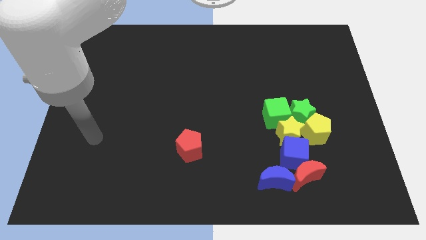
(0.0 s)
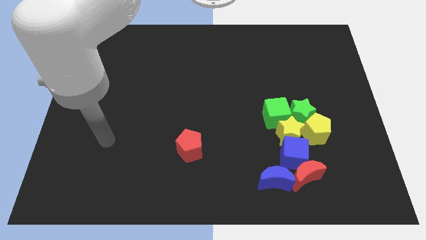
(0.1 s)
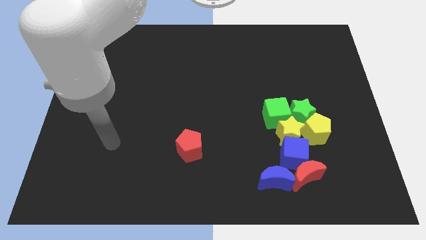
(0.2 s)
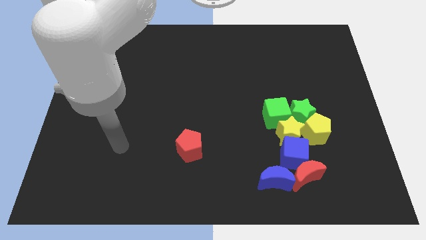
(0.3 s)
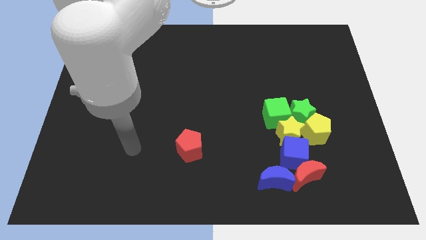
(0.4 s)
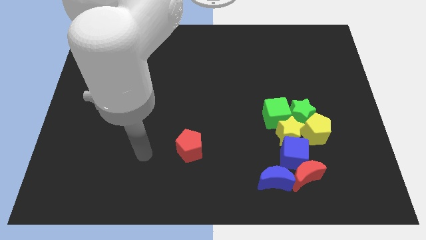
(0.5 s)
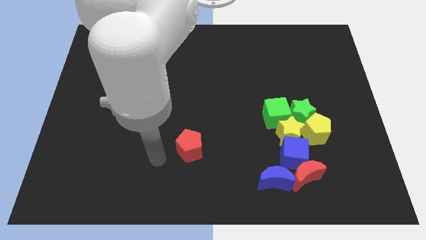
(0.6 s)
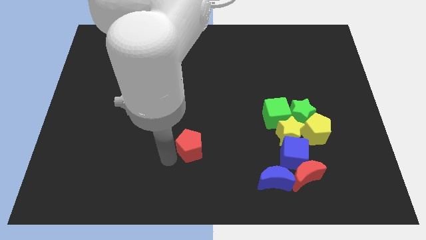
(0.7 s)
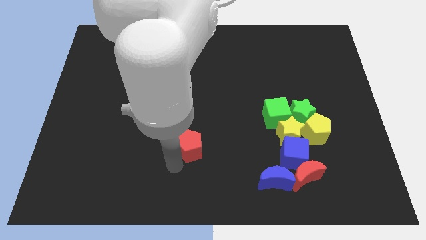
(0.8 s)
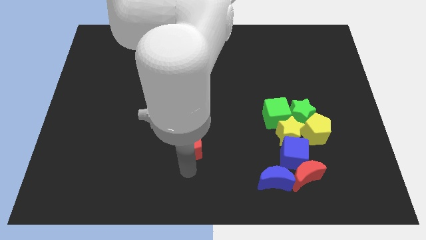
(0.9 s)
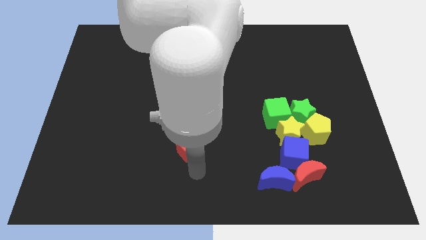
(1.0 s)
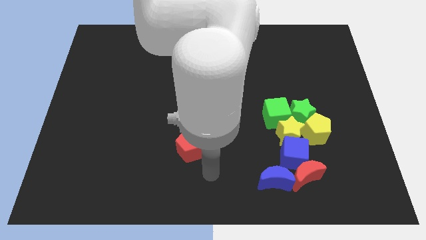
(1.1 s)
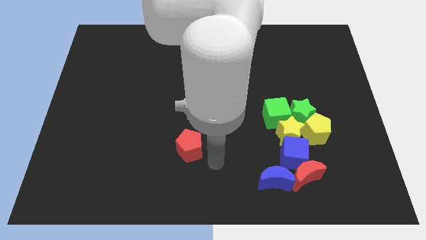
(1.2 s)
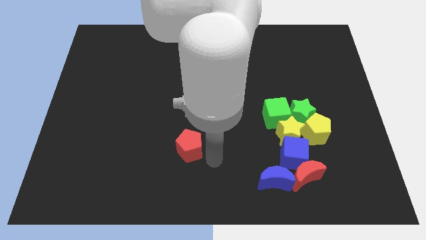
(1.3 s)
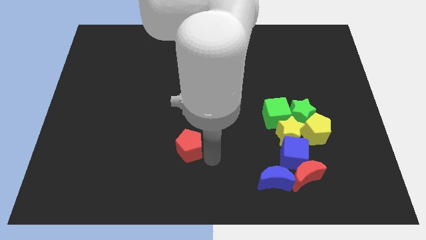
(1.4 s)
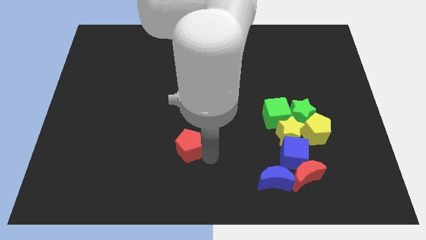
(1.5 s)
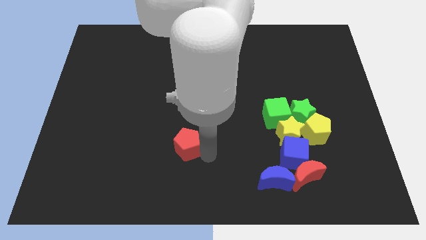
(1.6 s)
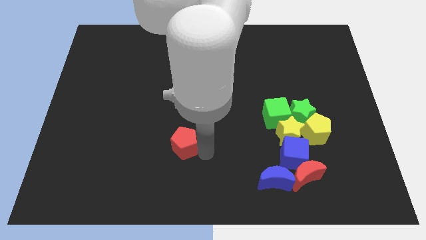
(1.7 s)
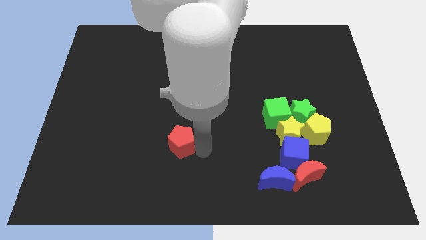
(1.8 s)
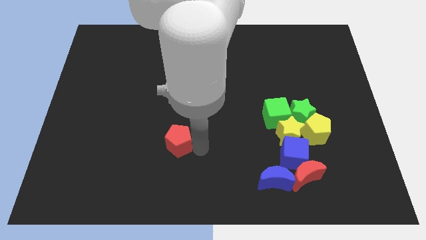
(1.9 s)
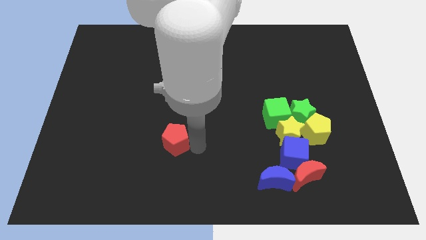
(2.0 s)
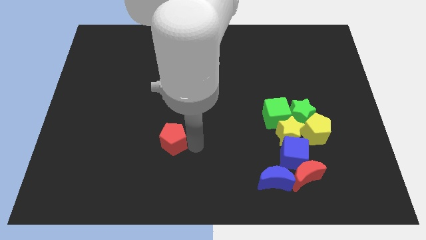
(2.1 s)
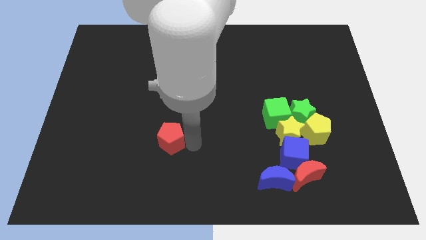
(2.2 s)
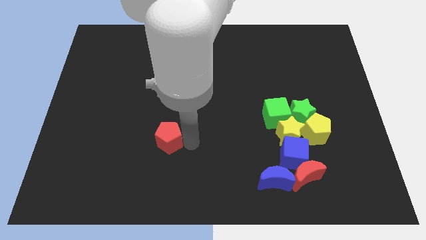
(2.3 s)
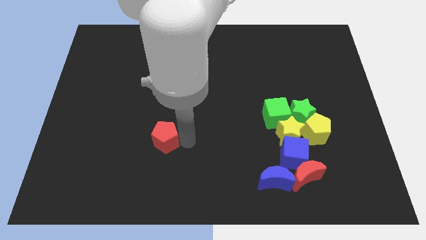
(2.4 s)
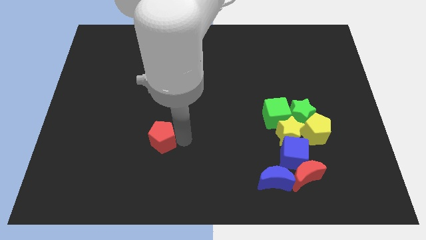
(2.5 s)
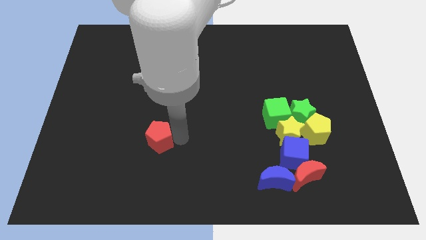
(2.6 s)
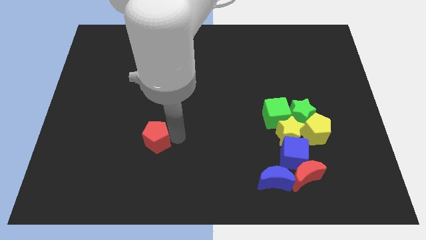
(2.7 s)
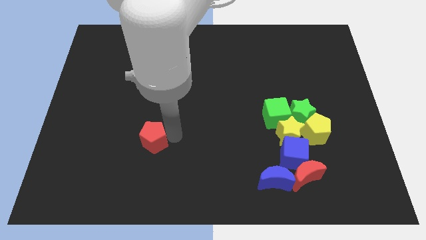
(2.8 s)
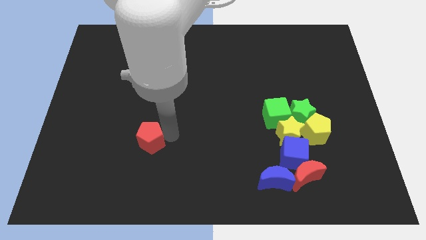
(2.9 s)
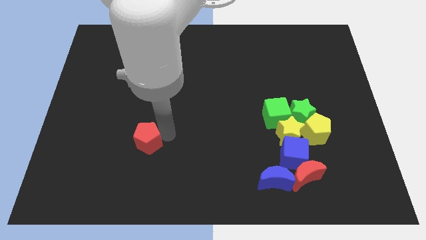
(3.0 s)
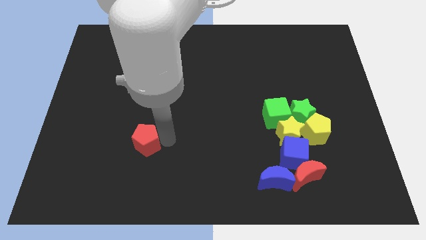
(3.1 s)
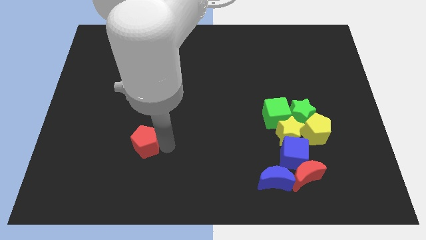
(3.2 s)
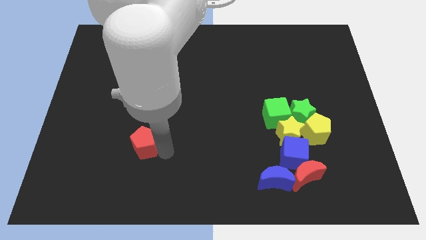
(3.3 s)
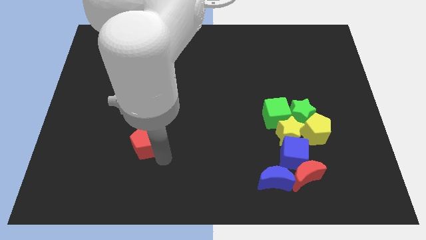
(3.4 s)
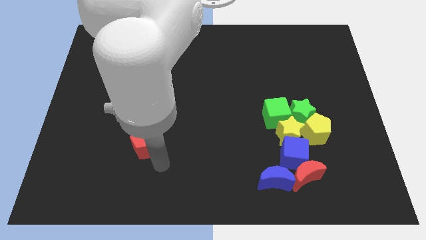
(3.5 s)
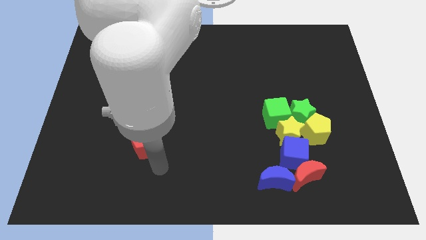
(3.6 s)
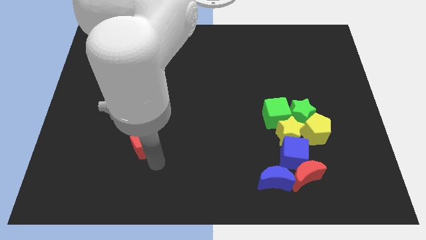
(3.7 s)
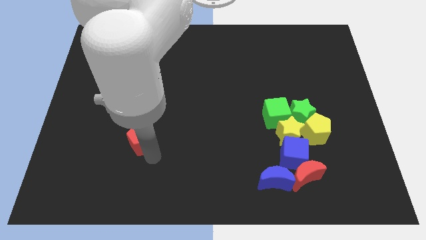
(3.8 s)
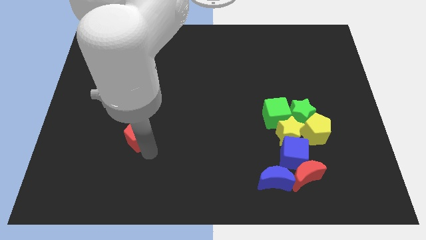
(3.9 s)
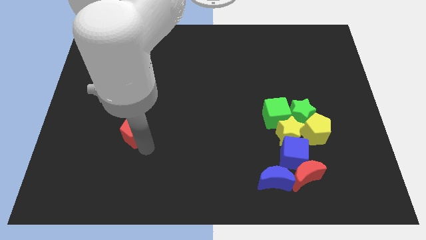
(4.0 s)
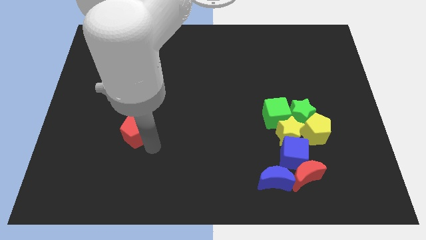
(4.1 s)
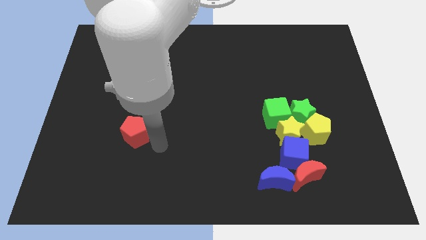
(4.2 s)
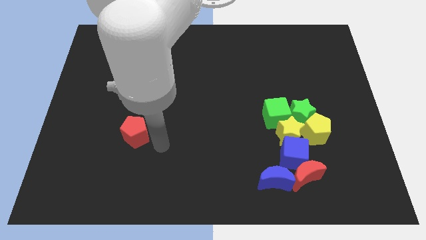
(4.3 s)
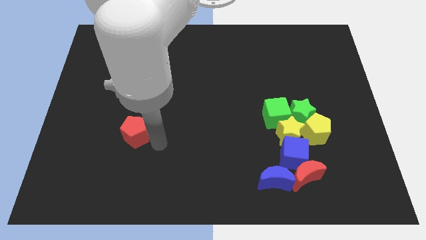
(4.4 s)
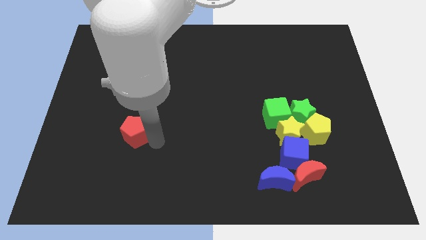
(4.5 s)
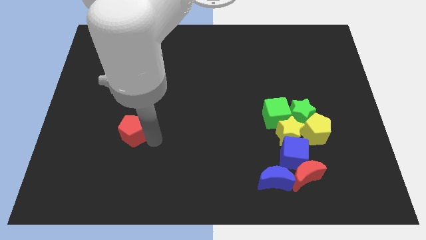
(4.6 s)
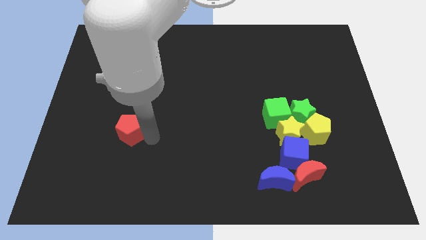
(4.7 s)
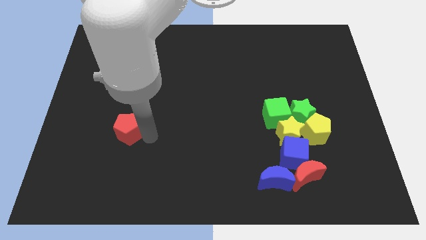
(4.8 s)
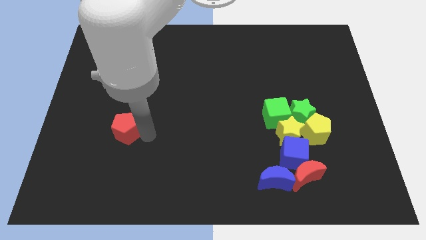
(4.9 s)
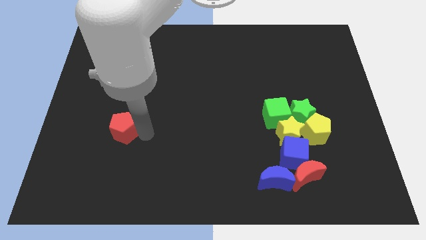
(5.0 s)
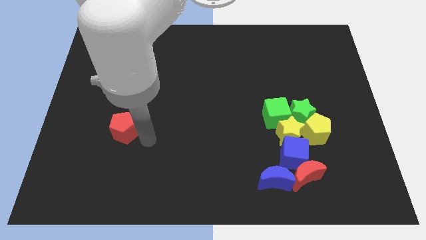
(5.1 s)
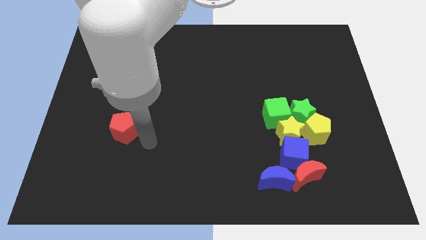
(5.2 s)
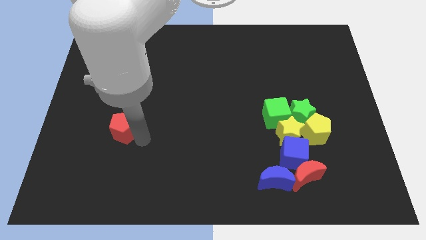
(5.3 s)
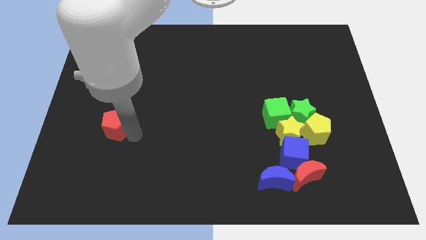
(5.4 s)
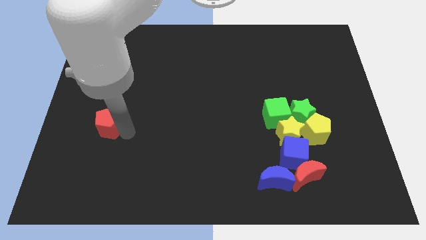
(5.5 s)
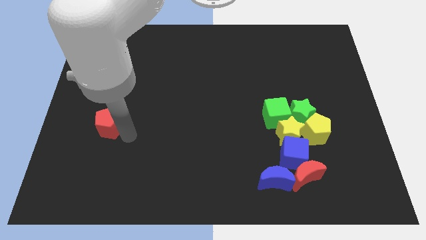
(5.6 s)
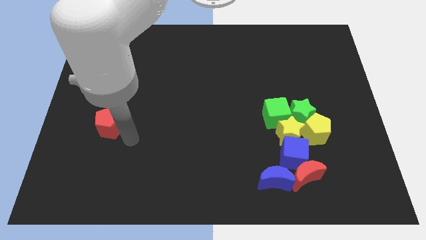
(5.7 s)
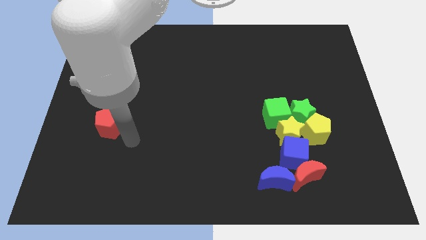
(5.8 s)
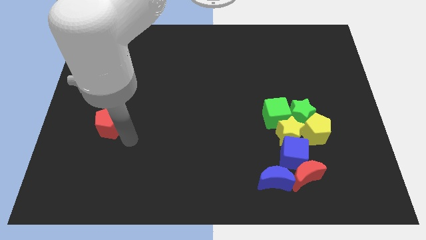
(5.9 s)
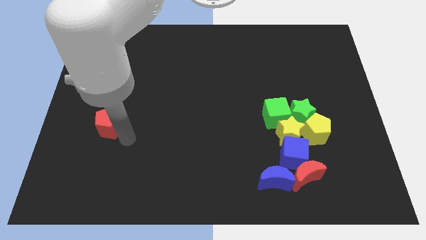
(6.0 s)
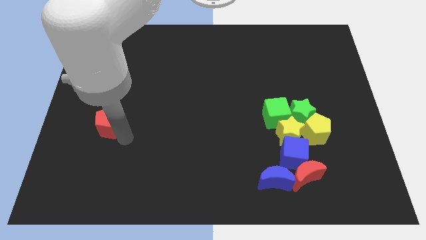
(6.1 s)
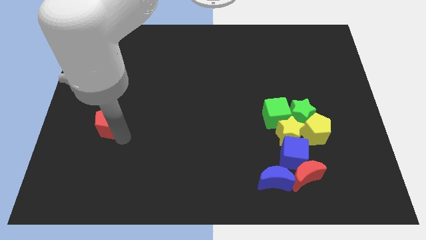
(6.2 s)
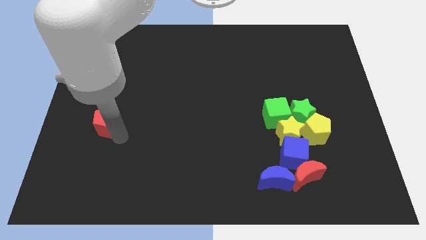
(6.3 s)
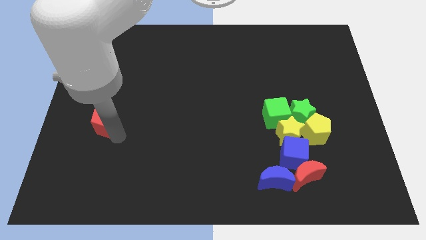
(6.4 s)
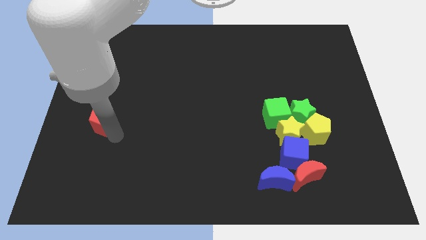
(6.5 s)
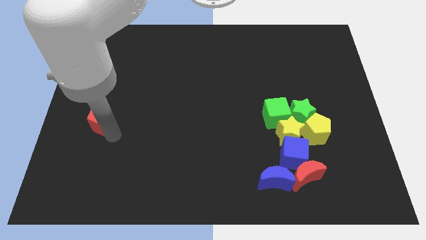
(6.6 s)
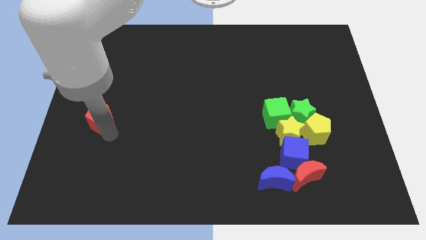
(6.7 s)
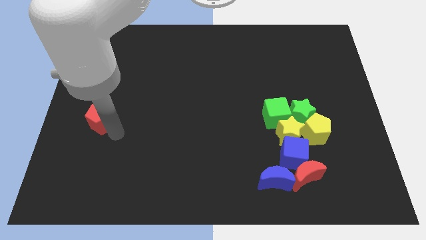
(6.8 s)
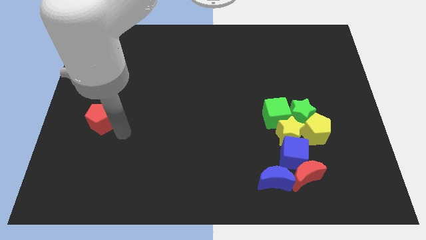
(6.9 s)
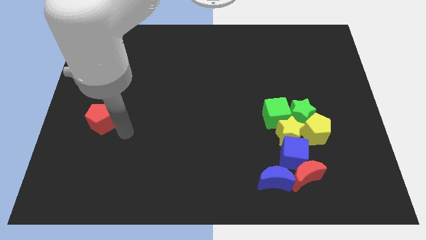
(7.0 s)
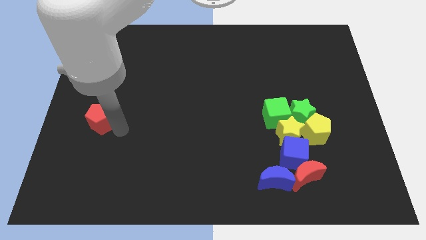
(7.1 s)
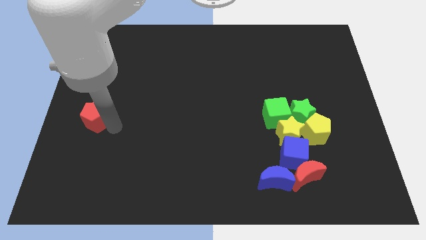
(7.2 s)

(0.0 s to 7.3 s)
push the red pentagon to the center left

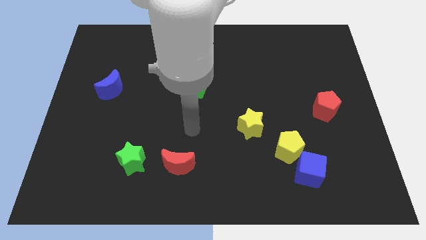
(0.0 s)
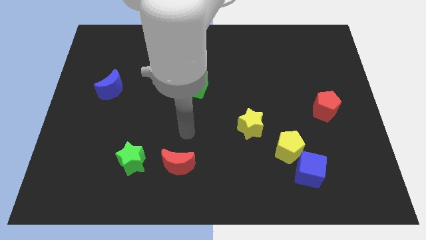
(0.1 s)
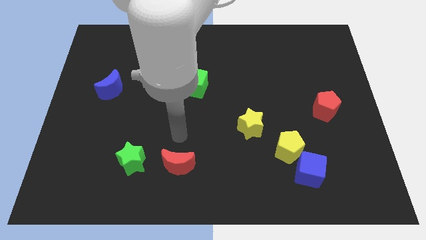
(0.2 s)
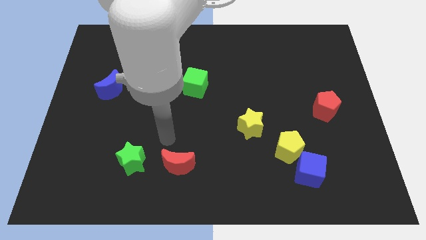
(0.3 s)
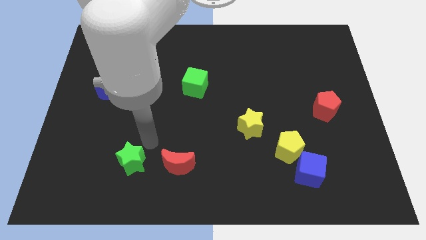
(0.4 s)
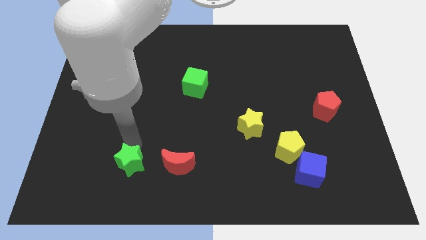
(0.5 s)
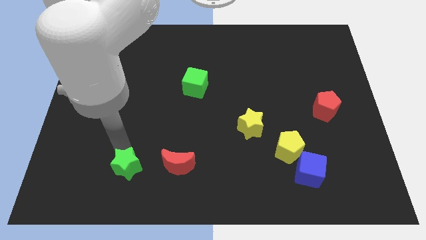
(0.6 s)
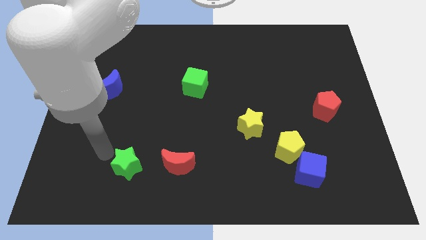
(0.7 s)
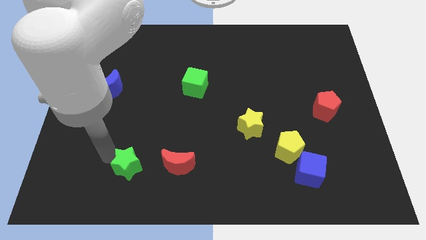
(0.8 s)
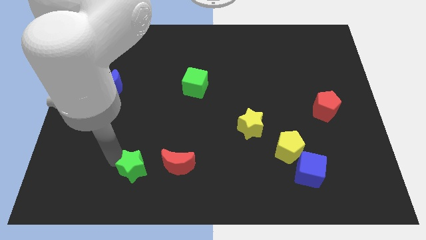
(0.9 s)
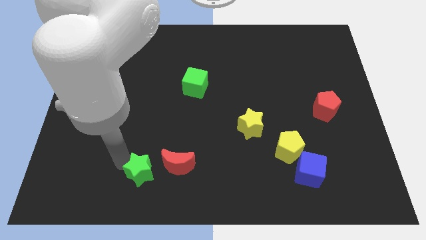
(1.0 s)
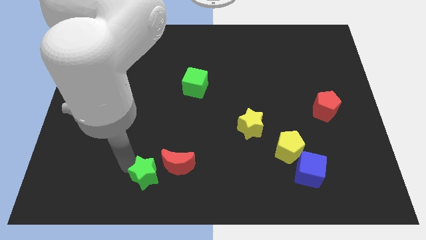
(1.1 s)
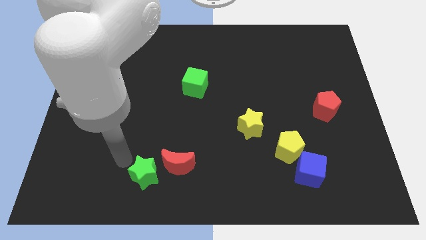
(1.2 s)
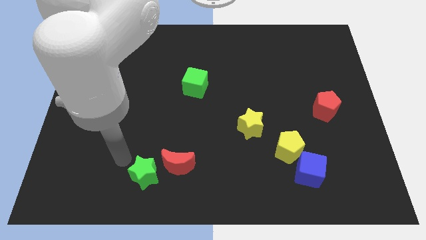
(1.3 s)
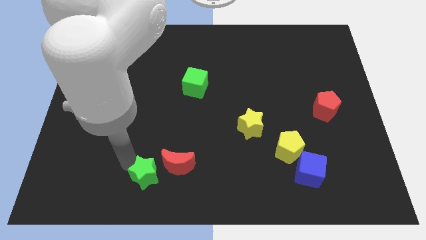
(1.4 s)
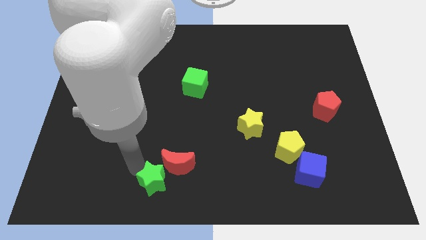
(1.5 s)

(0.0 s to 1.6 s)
move the green star to the bottom
